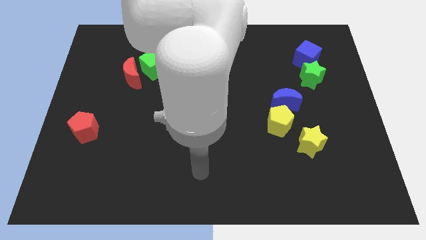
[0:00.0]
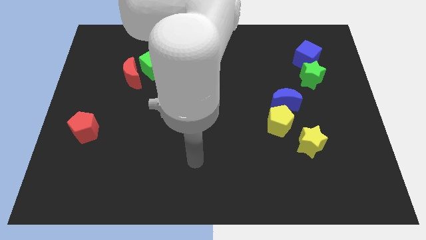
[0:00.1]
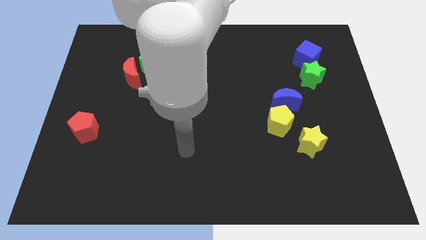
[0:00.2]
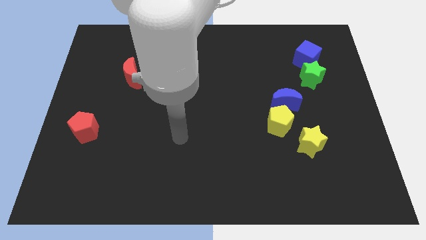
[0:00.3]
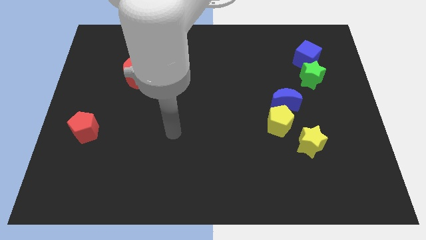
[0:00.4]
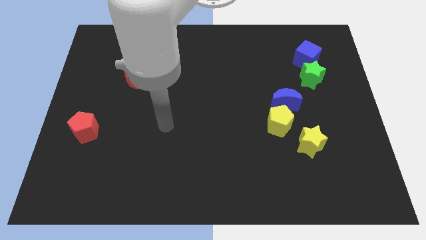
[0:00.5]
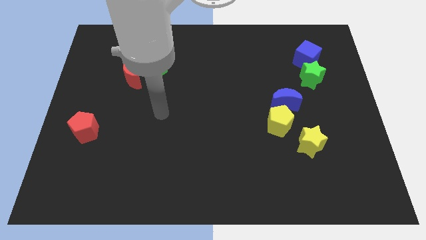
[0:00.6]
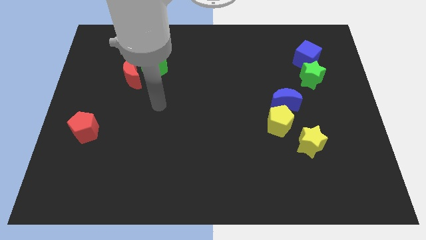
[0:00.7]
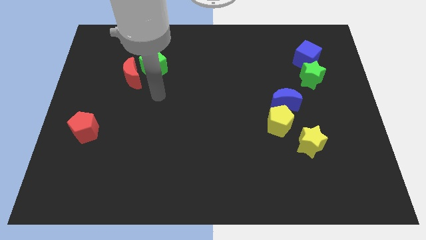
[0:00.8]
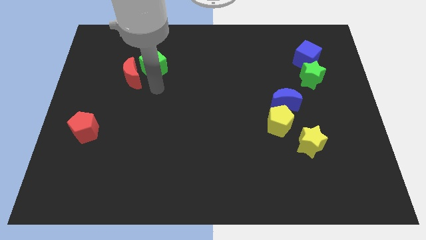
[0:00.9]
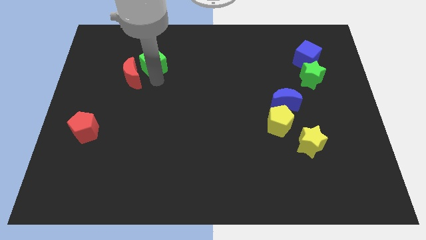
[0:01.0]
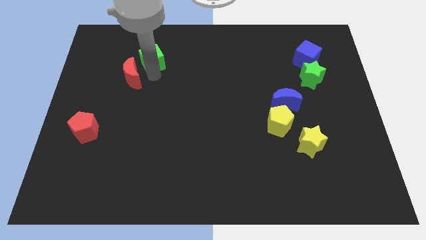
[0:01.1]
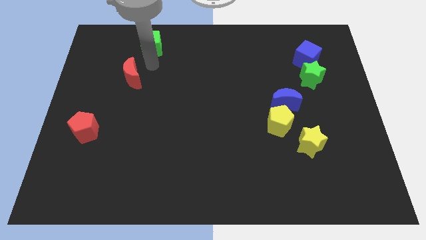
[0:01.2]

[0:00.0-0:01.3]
pull the red moon apart from the green cube

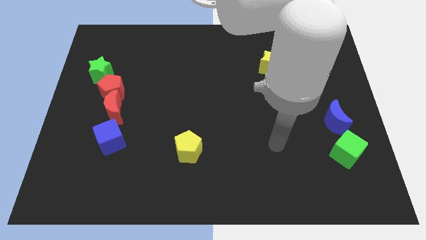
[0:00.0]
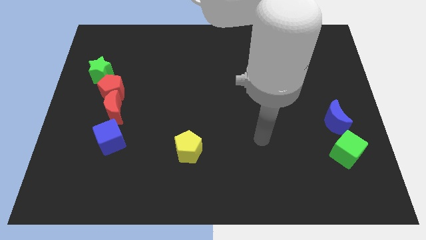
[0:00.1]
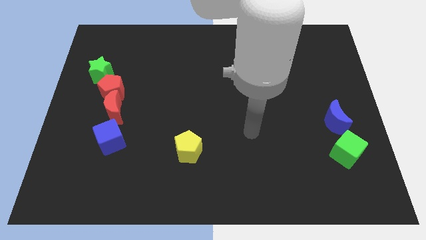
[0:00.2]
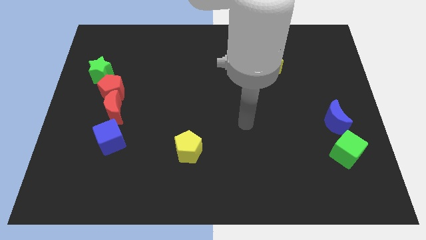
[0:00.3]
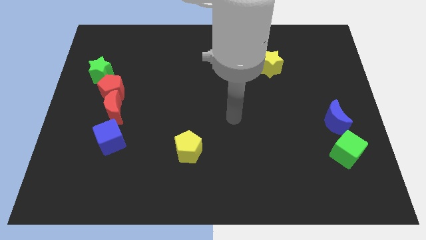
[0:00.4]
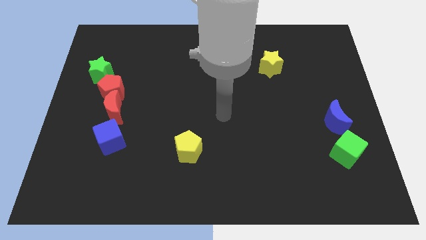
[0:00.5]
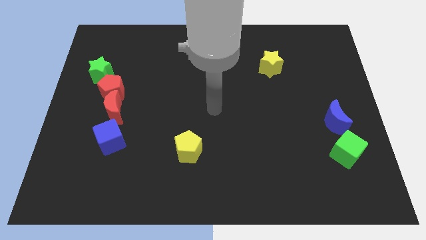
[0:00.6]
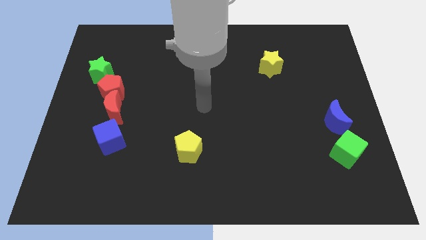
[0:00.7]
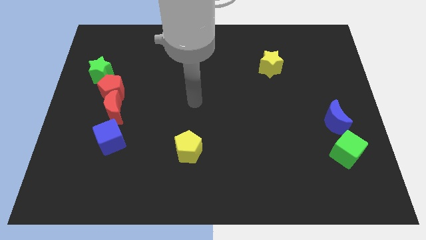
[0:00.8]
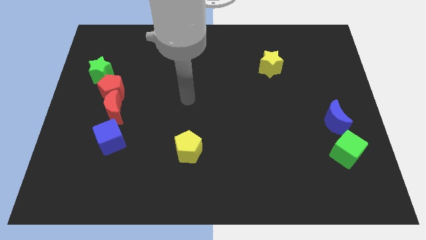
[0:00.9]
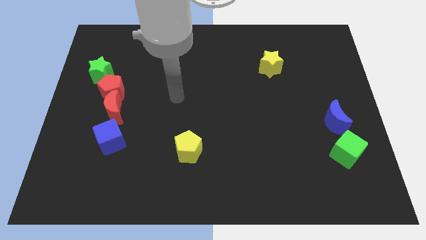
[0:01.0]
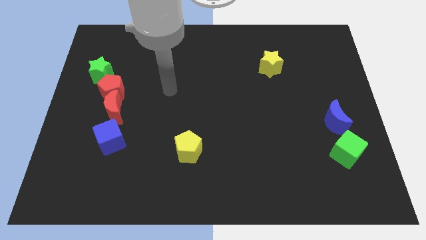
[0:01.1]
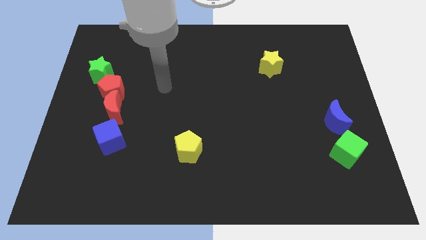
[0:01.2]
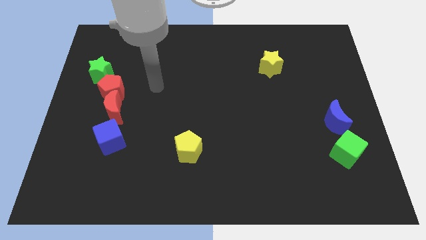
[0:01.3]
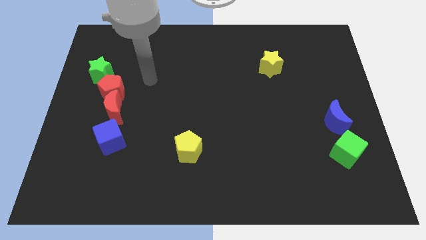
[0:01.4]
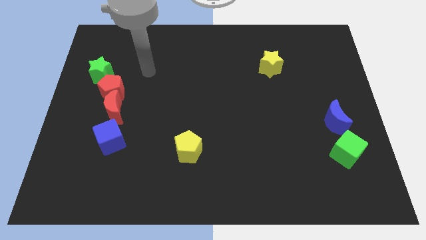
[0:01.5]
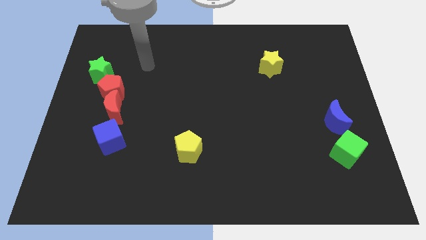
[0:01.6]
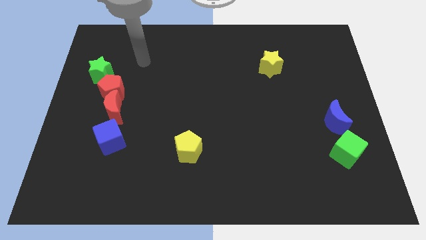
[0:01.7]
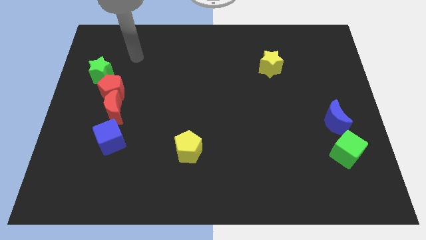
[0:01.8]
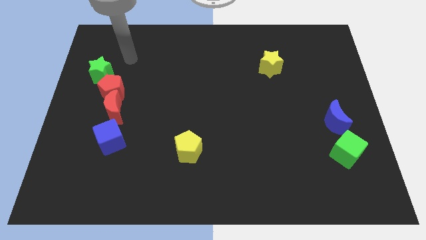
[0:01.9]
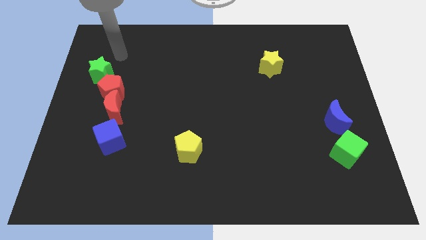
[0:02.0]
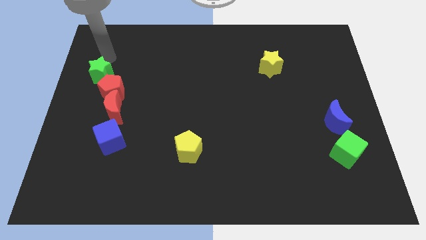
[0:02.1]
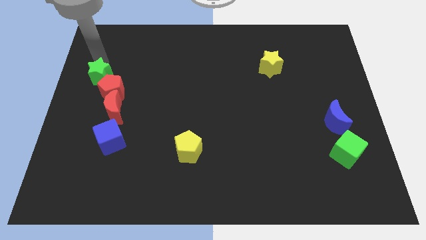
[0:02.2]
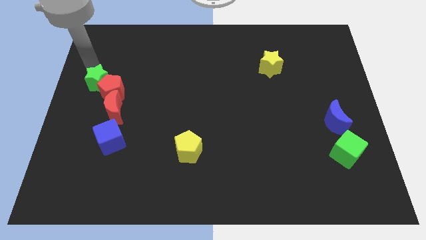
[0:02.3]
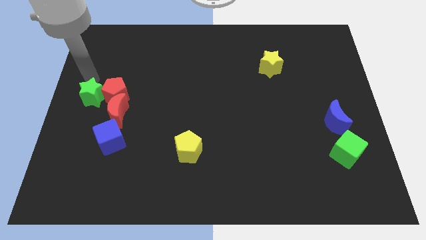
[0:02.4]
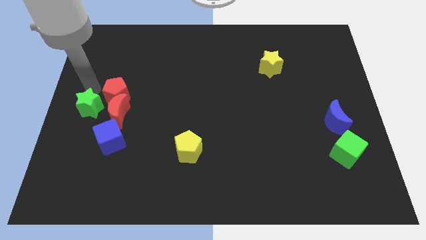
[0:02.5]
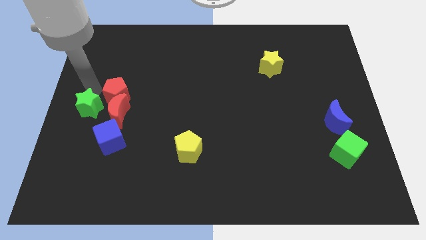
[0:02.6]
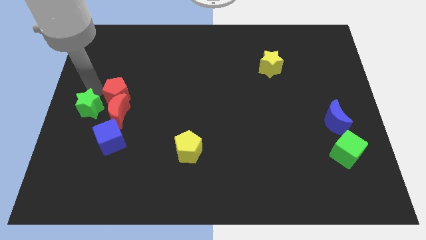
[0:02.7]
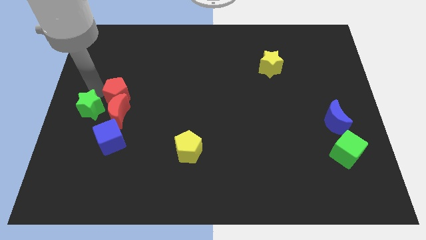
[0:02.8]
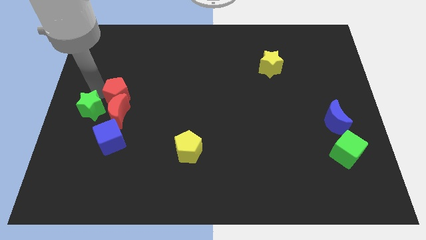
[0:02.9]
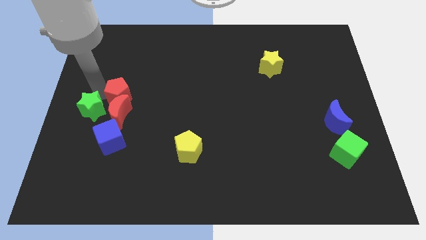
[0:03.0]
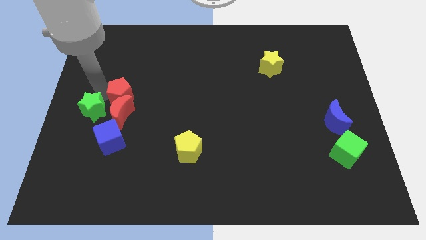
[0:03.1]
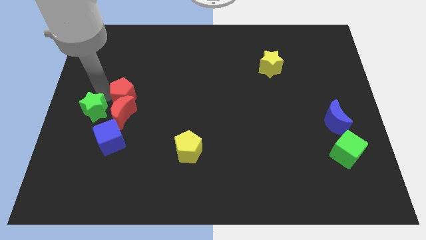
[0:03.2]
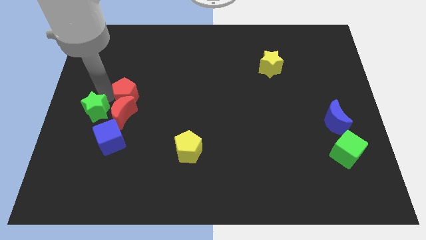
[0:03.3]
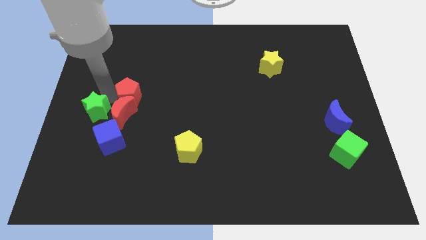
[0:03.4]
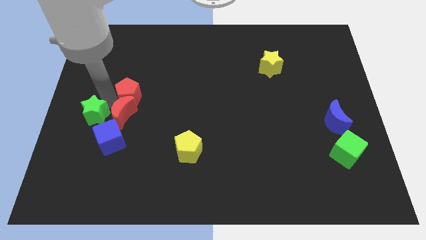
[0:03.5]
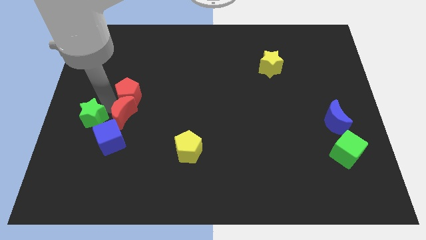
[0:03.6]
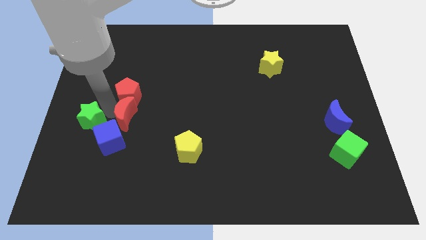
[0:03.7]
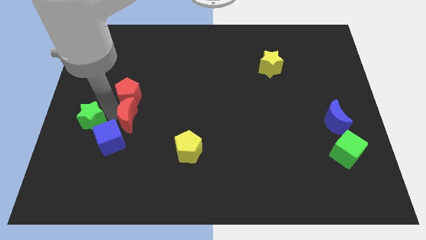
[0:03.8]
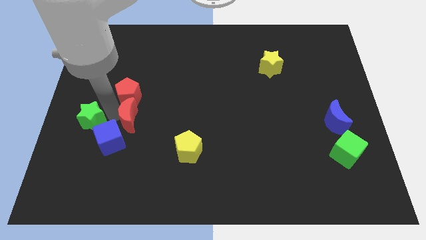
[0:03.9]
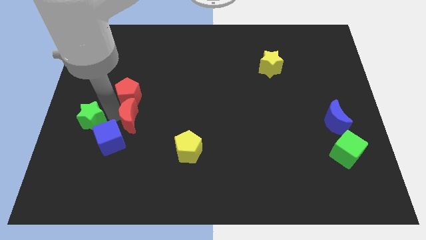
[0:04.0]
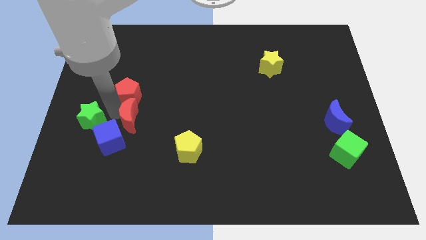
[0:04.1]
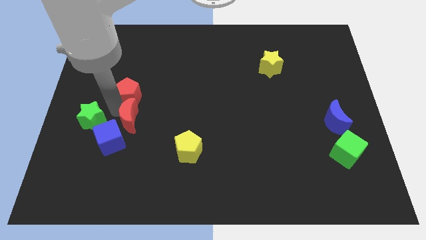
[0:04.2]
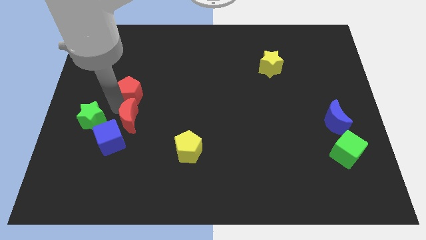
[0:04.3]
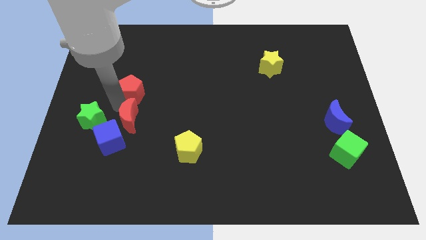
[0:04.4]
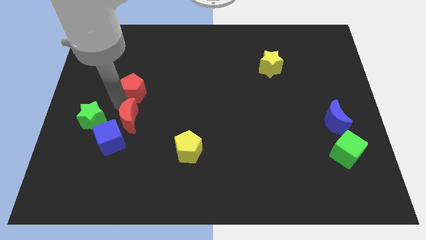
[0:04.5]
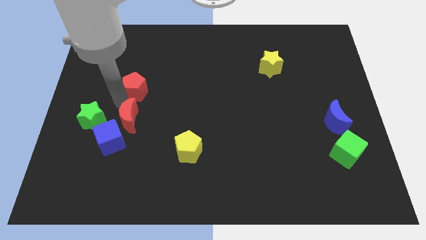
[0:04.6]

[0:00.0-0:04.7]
pull the red pentagon apart from the red moon and green star

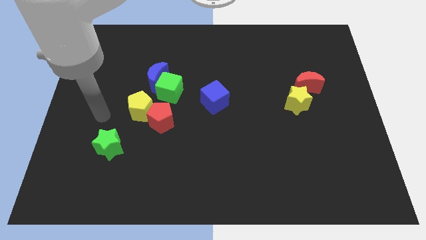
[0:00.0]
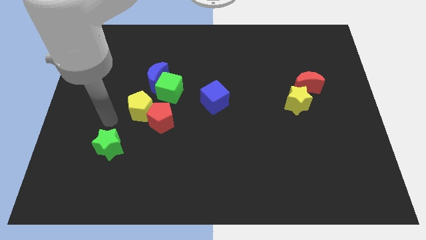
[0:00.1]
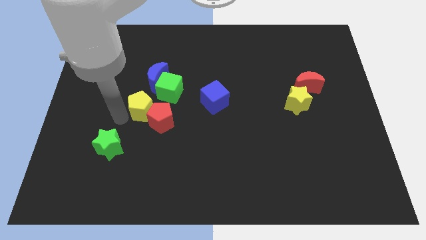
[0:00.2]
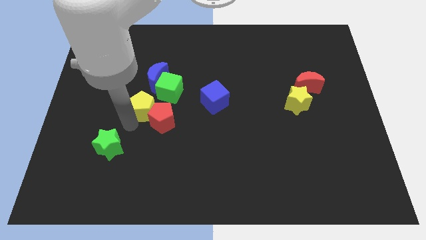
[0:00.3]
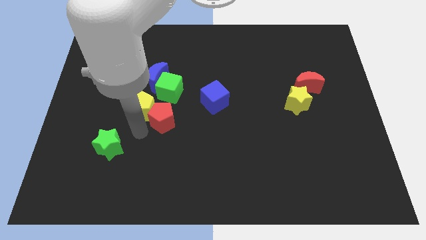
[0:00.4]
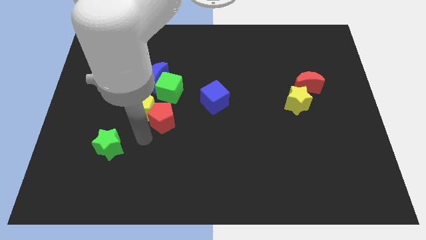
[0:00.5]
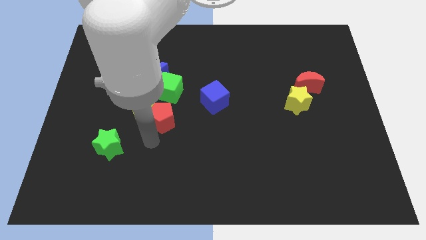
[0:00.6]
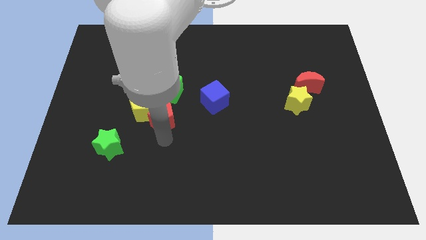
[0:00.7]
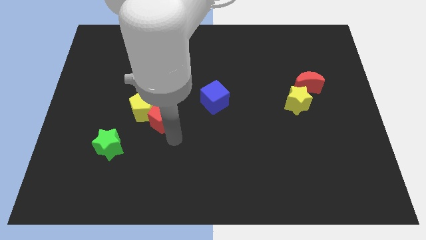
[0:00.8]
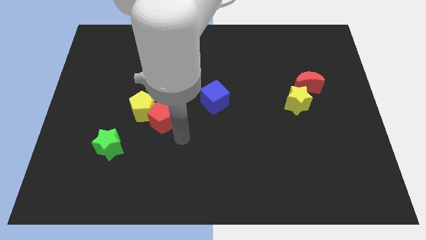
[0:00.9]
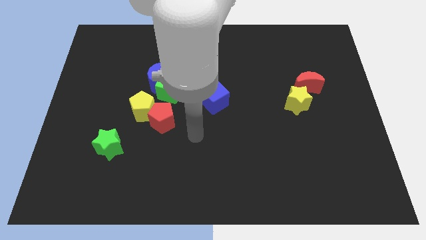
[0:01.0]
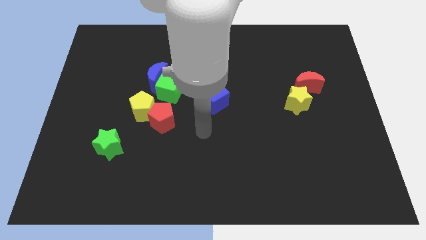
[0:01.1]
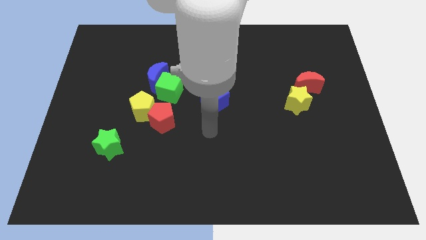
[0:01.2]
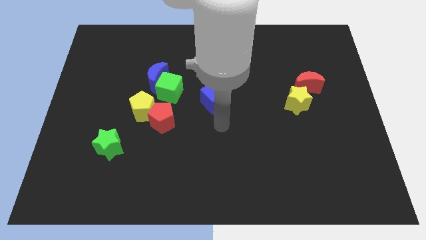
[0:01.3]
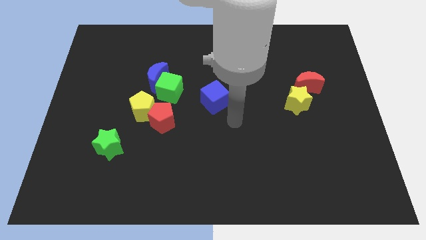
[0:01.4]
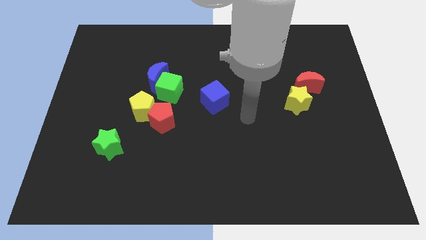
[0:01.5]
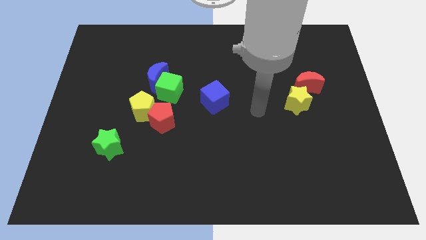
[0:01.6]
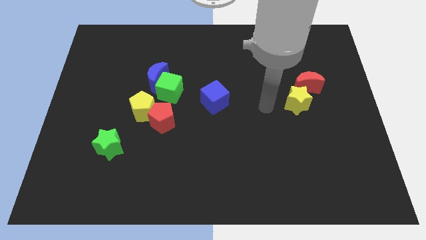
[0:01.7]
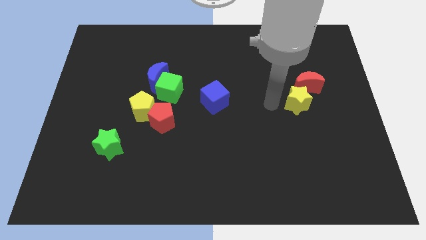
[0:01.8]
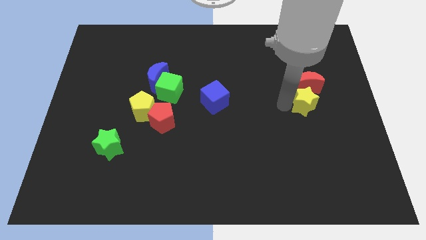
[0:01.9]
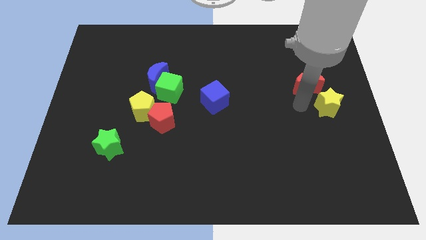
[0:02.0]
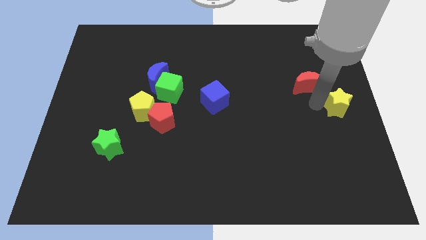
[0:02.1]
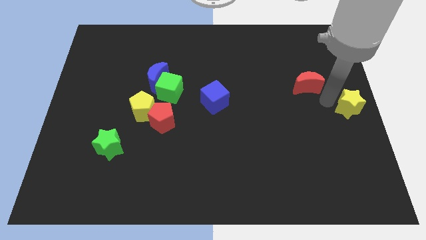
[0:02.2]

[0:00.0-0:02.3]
move the red moon away from the yellow star

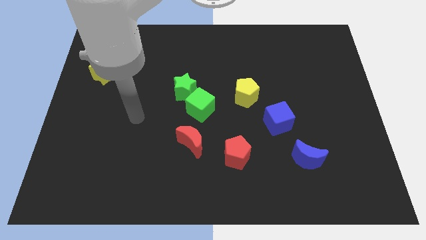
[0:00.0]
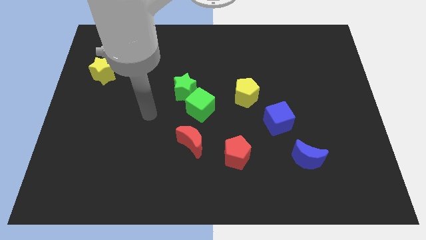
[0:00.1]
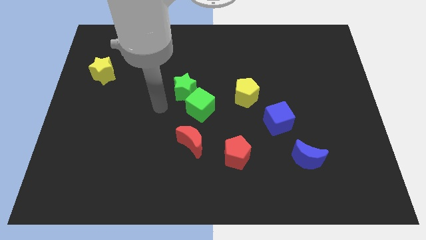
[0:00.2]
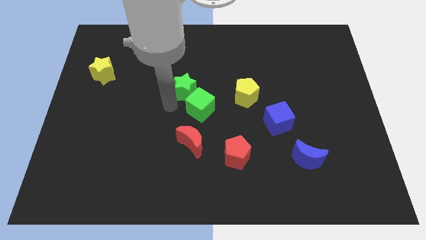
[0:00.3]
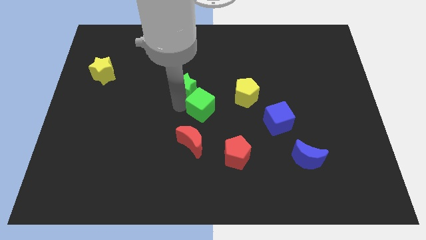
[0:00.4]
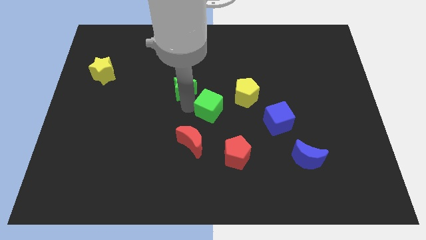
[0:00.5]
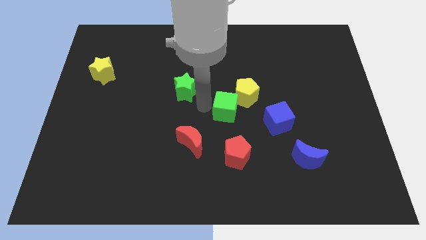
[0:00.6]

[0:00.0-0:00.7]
move the green star away from the green cube

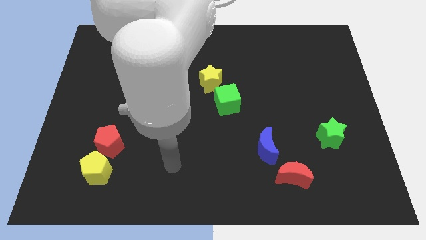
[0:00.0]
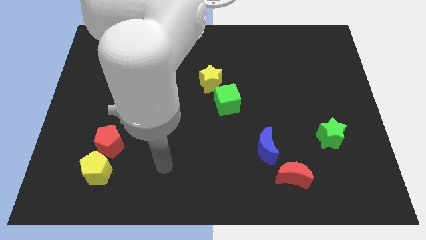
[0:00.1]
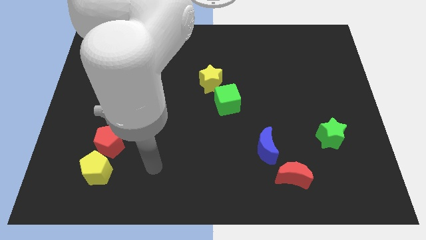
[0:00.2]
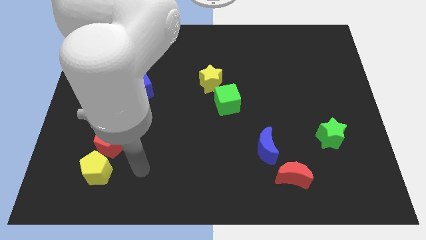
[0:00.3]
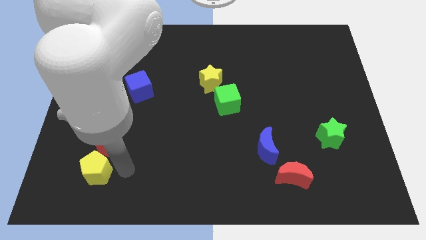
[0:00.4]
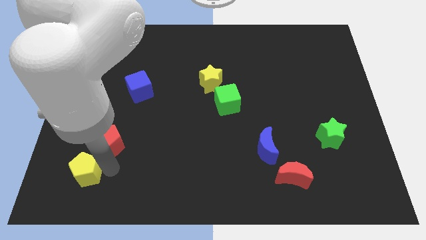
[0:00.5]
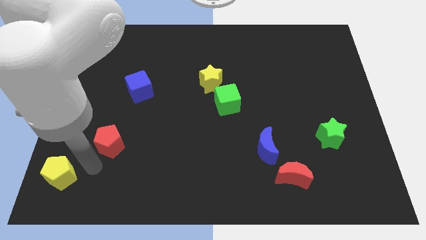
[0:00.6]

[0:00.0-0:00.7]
pull the red pentagon apart from the yellow pentagon
